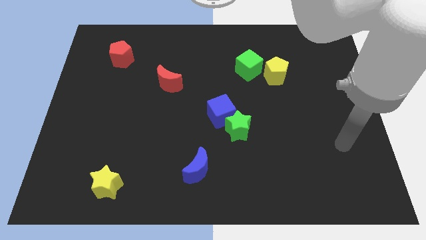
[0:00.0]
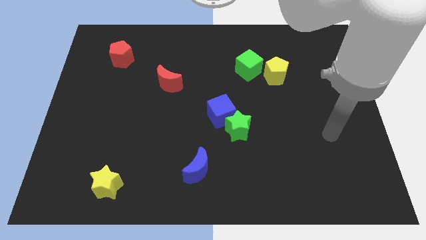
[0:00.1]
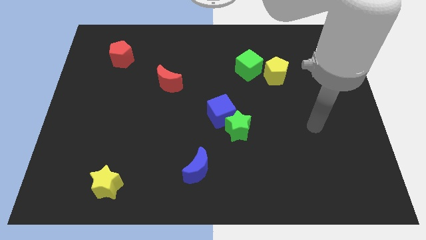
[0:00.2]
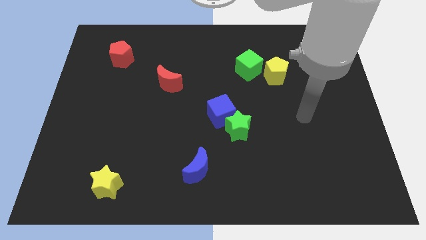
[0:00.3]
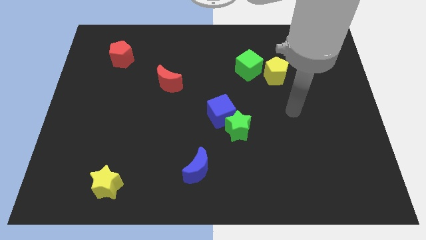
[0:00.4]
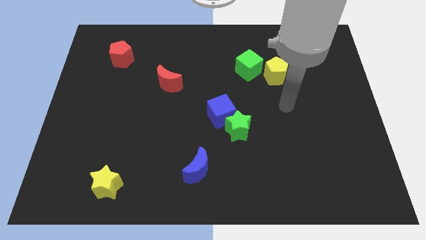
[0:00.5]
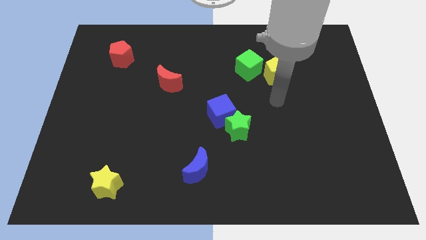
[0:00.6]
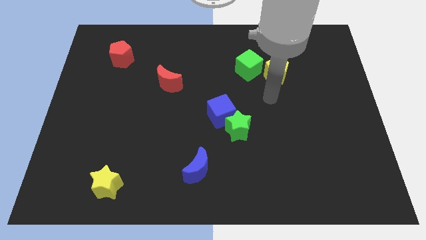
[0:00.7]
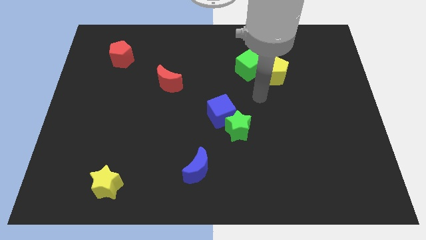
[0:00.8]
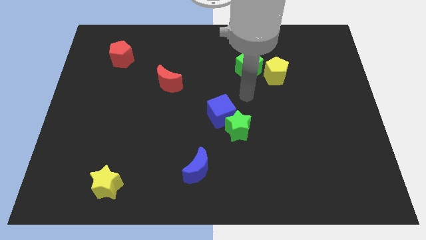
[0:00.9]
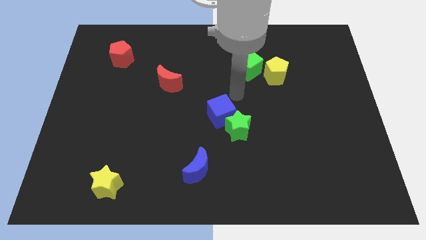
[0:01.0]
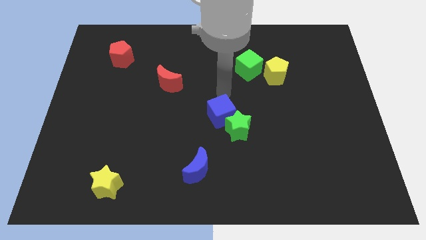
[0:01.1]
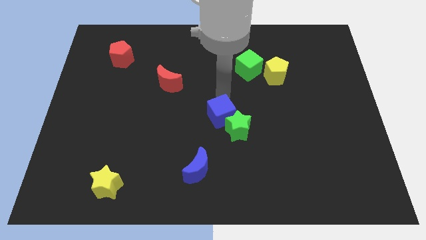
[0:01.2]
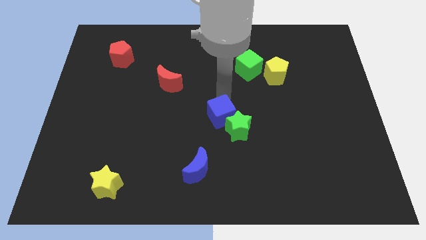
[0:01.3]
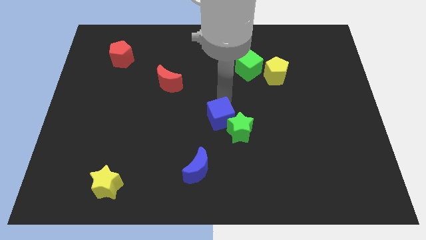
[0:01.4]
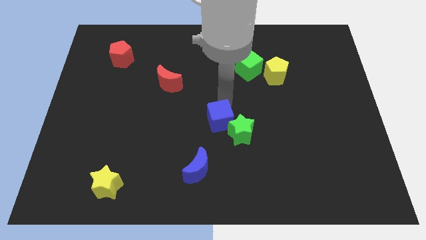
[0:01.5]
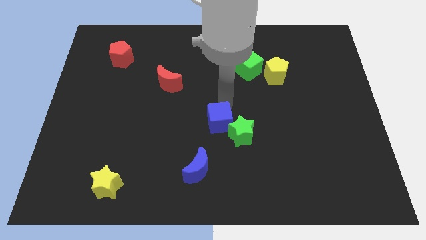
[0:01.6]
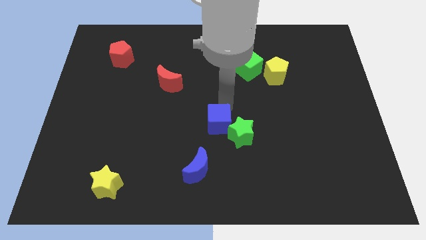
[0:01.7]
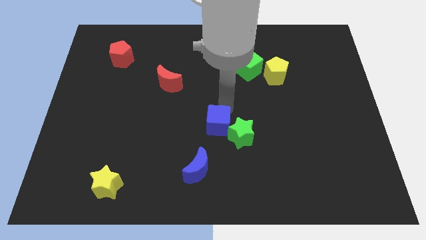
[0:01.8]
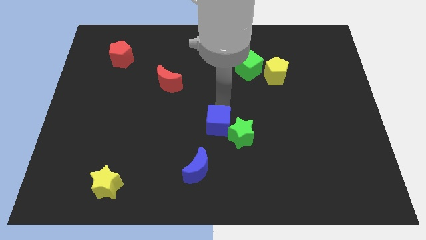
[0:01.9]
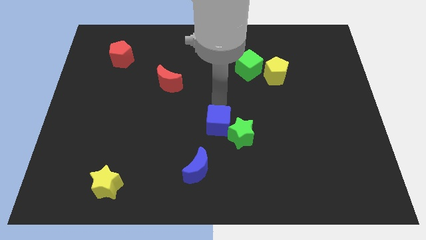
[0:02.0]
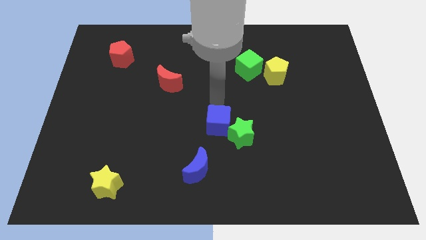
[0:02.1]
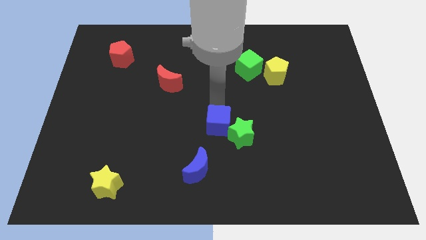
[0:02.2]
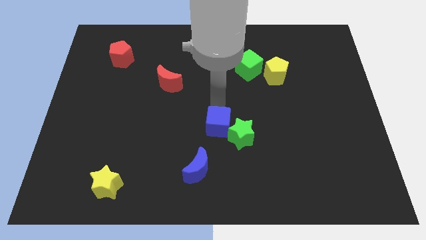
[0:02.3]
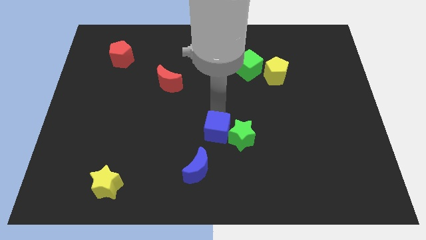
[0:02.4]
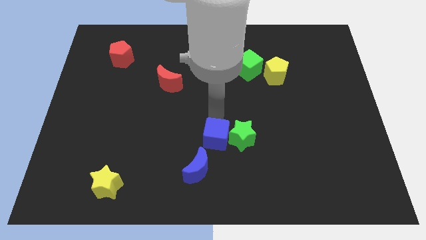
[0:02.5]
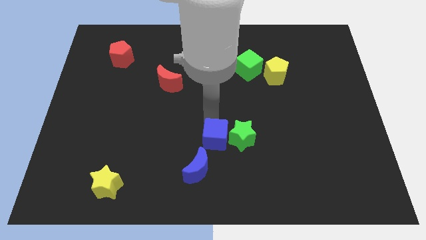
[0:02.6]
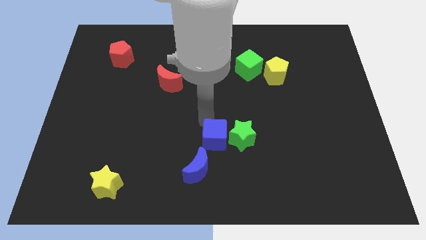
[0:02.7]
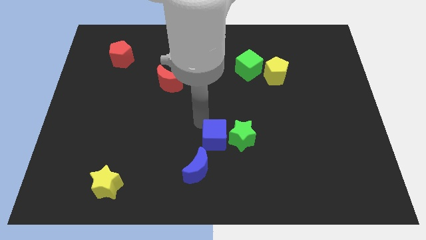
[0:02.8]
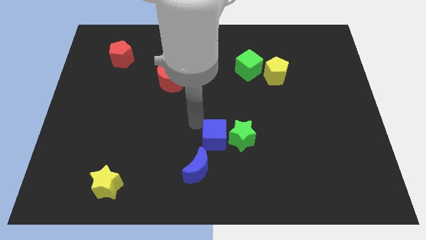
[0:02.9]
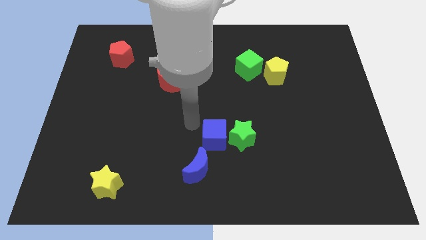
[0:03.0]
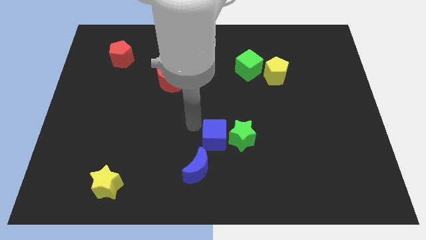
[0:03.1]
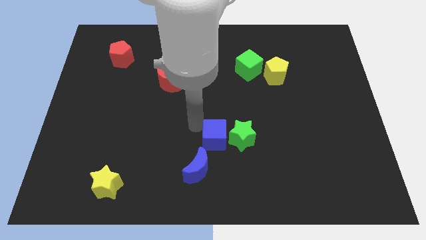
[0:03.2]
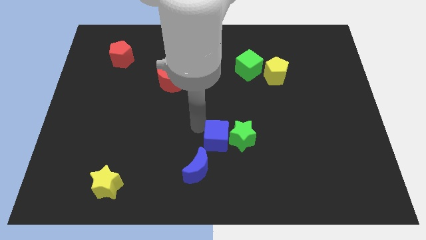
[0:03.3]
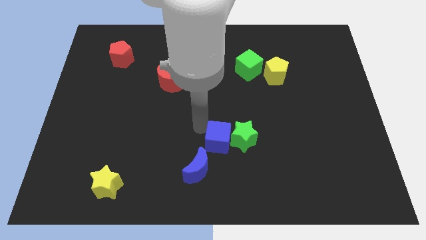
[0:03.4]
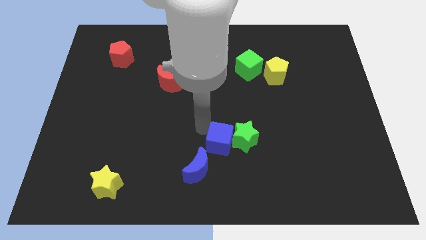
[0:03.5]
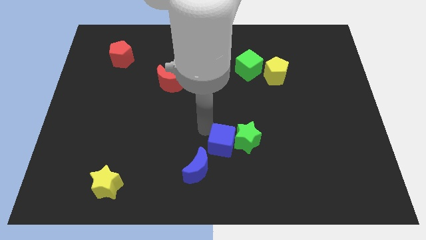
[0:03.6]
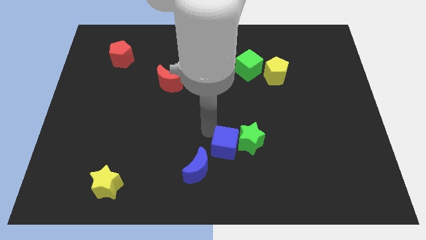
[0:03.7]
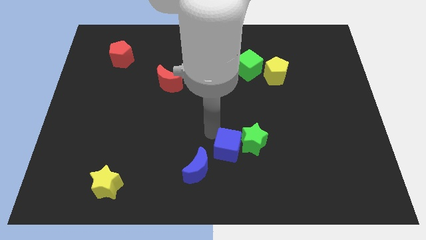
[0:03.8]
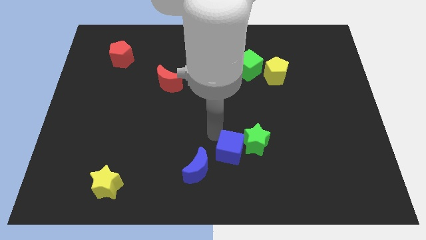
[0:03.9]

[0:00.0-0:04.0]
slightly push the blue cube downwards and right

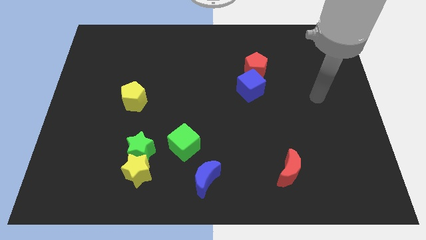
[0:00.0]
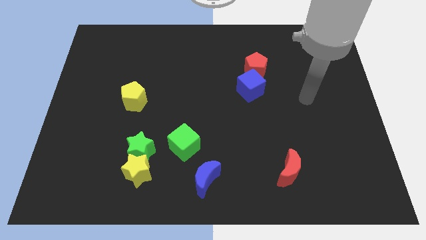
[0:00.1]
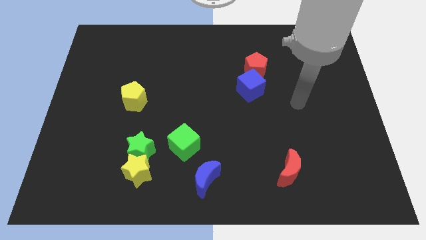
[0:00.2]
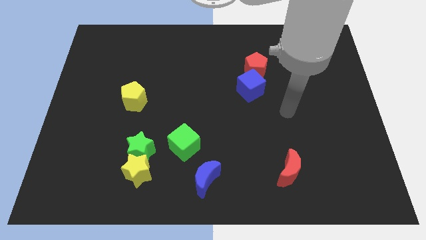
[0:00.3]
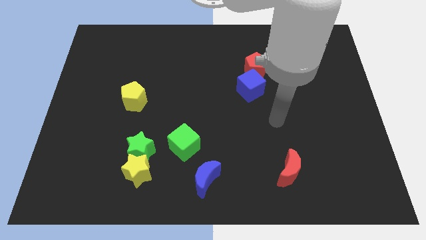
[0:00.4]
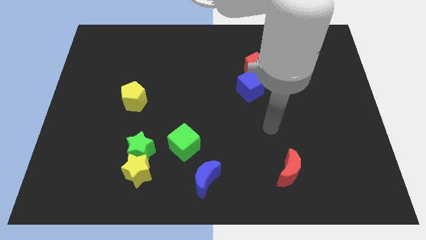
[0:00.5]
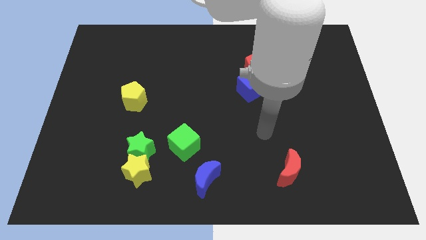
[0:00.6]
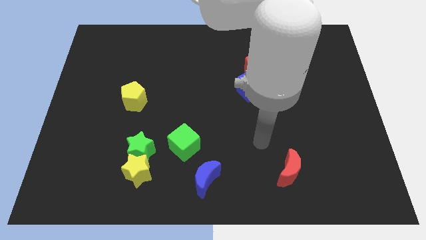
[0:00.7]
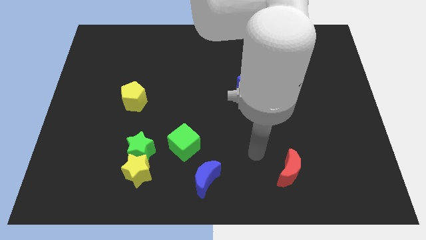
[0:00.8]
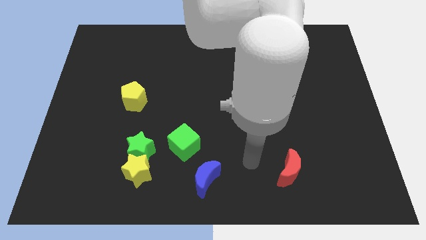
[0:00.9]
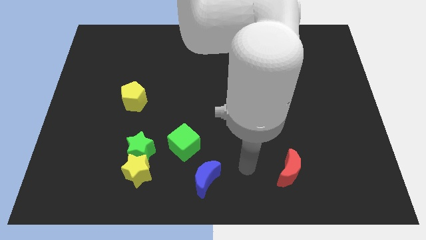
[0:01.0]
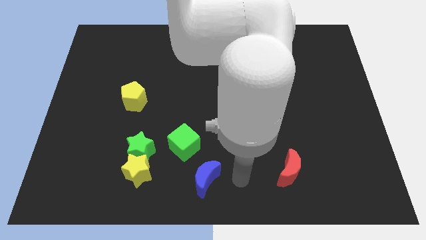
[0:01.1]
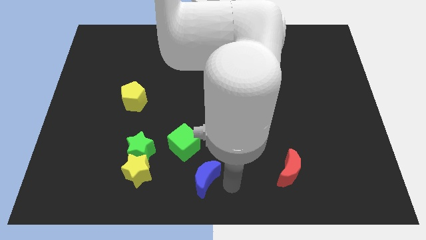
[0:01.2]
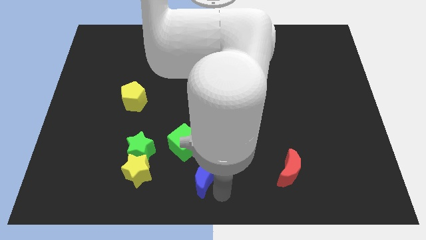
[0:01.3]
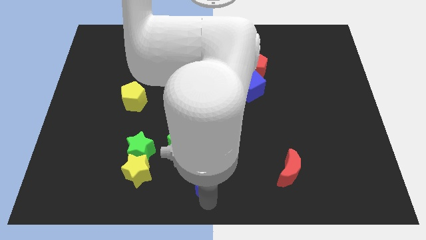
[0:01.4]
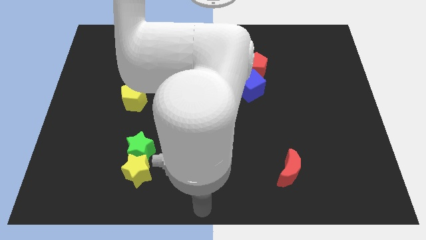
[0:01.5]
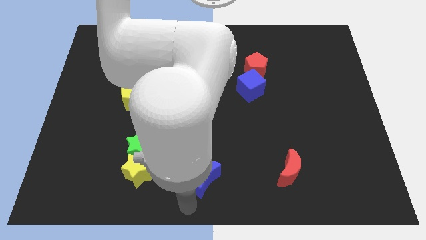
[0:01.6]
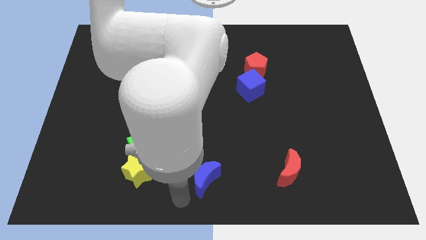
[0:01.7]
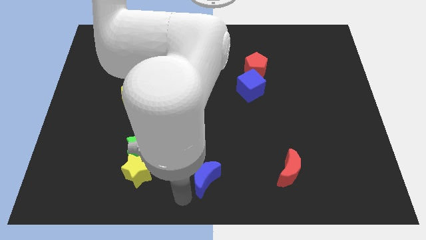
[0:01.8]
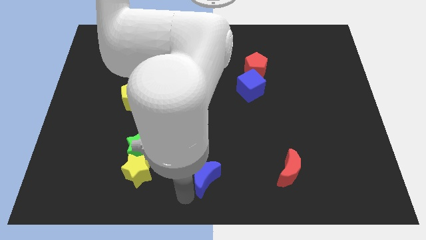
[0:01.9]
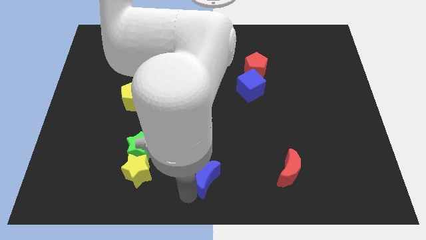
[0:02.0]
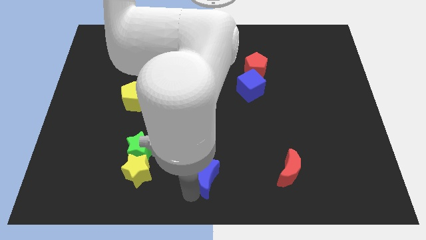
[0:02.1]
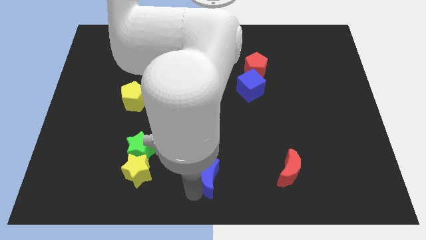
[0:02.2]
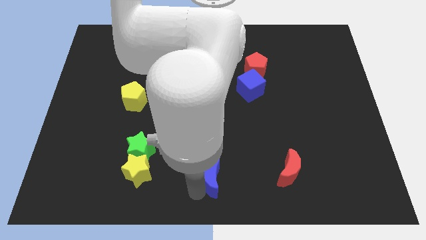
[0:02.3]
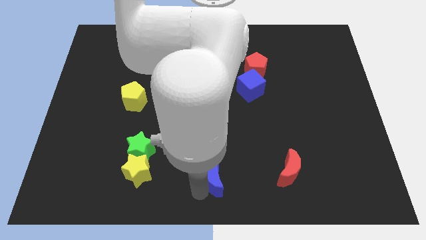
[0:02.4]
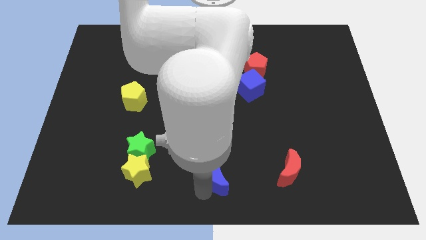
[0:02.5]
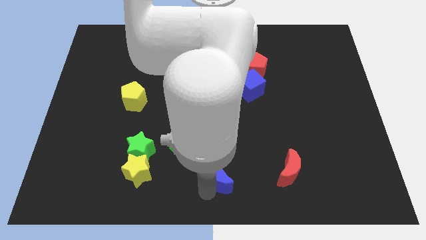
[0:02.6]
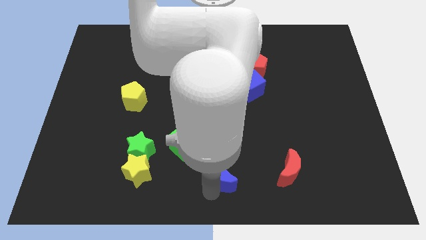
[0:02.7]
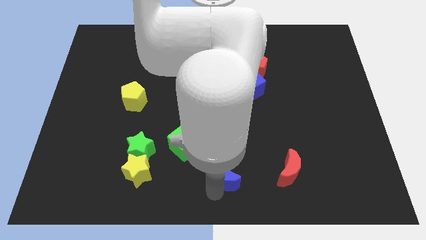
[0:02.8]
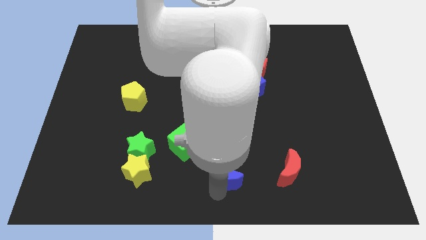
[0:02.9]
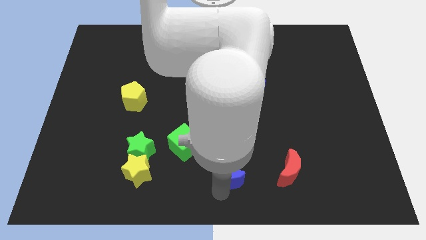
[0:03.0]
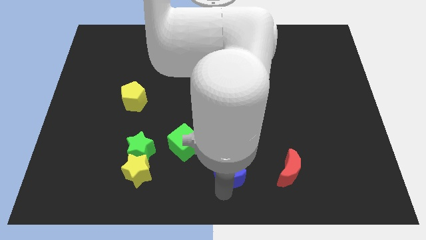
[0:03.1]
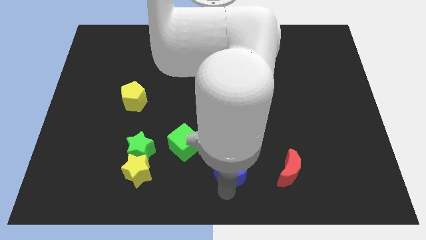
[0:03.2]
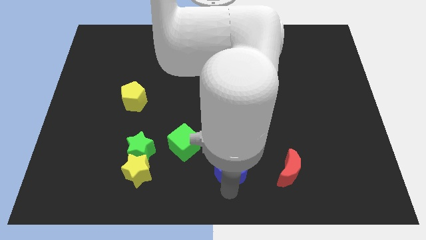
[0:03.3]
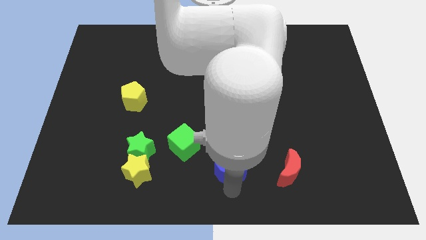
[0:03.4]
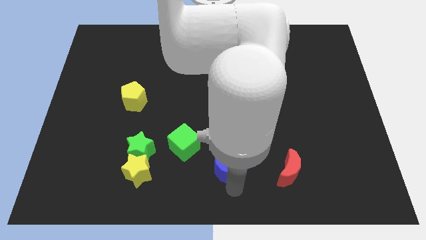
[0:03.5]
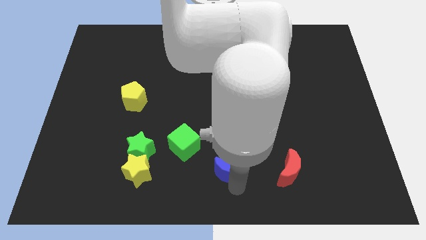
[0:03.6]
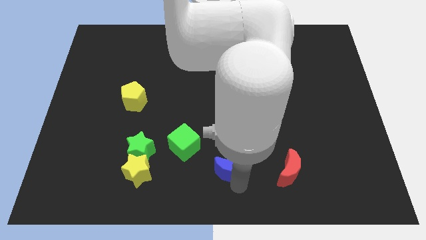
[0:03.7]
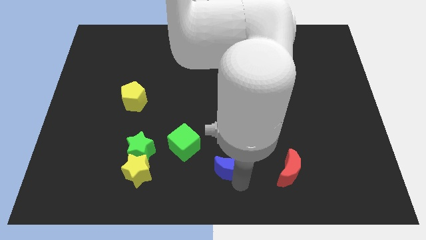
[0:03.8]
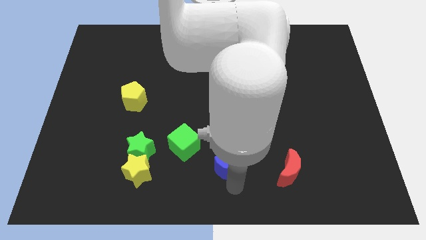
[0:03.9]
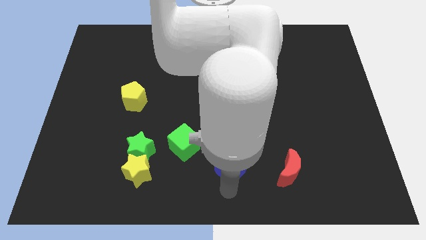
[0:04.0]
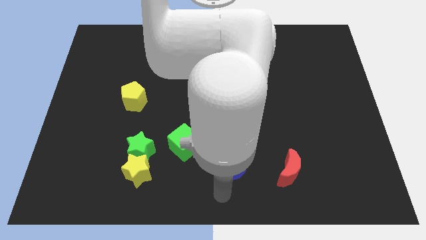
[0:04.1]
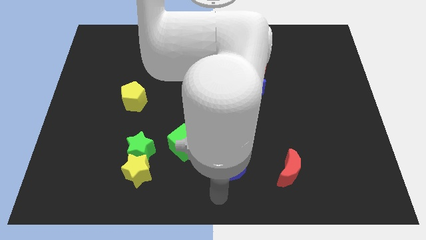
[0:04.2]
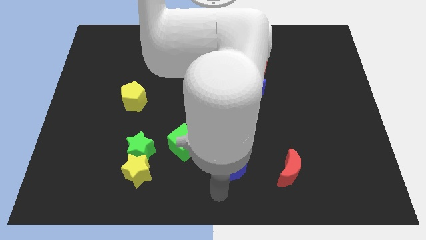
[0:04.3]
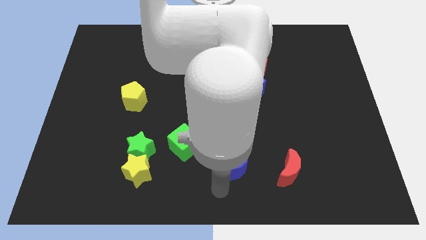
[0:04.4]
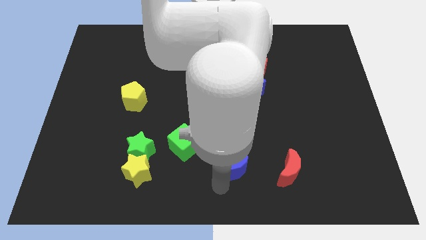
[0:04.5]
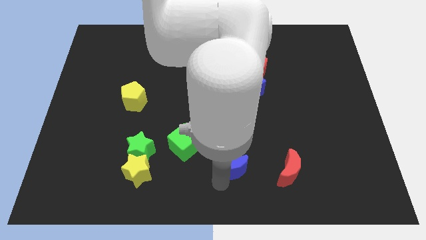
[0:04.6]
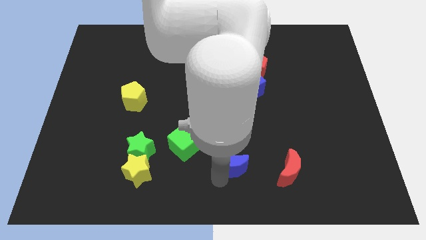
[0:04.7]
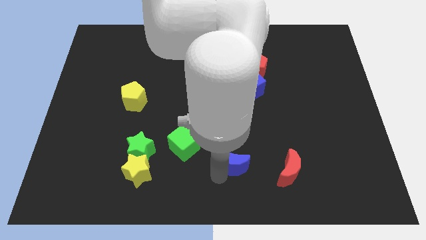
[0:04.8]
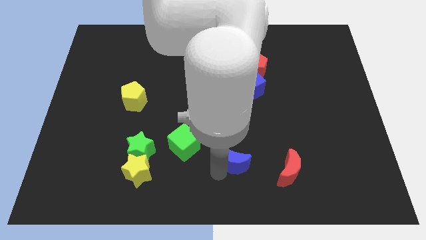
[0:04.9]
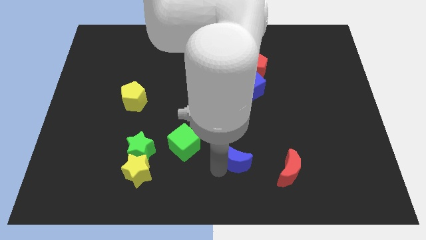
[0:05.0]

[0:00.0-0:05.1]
slightly slide the blue moon upwards and right
